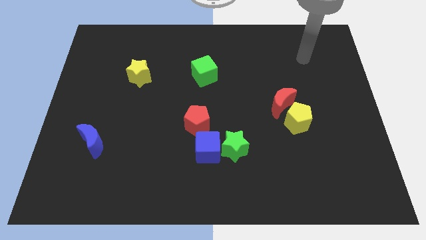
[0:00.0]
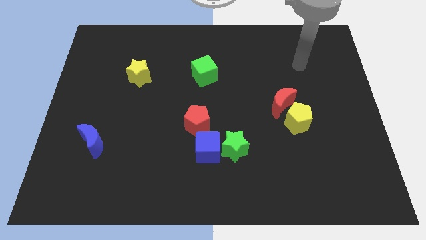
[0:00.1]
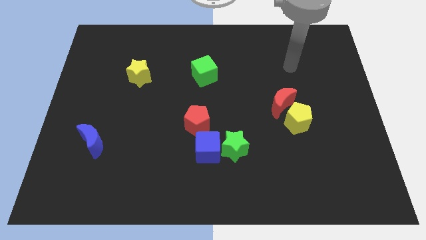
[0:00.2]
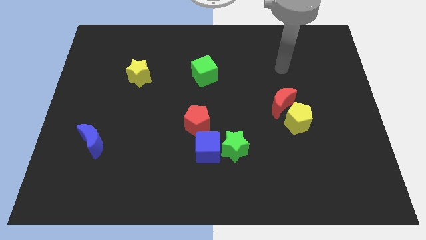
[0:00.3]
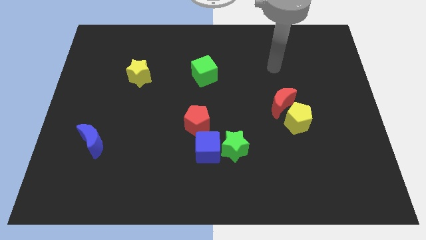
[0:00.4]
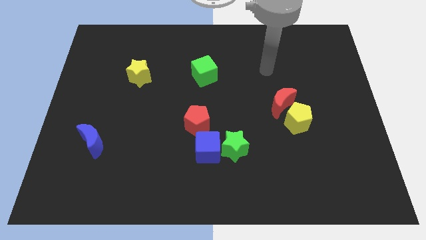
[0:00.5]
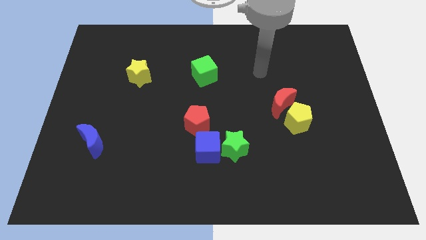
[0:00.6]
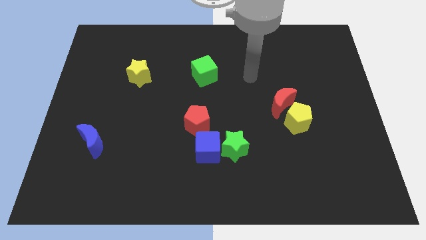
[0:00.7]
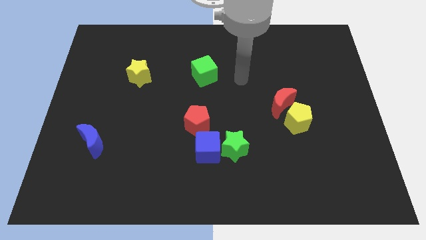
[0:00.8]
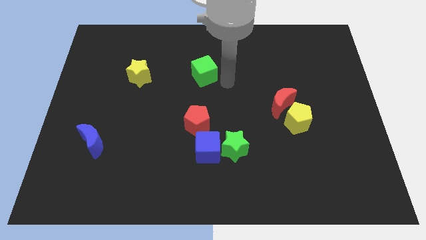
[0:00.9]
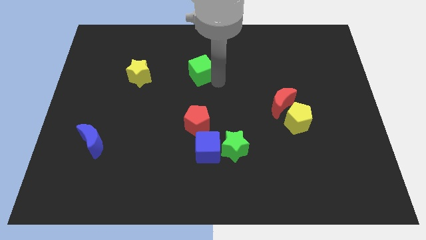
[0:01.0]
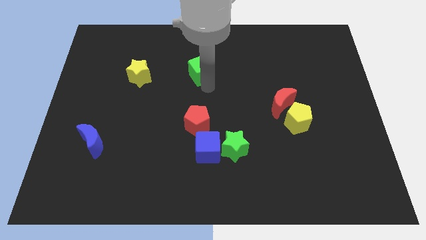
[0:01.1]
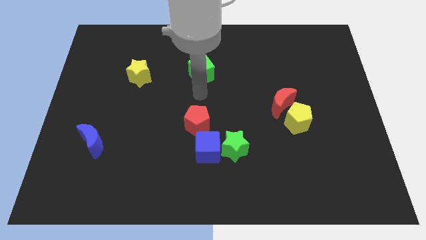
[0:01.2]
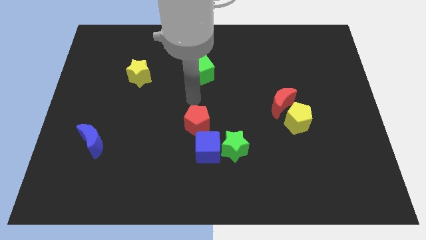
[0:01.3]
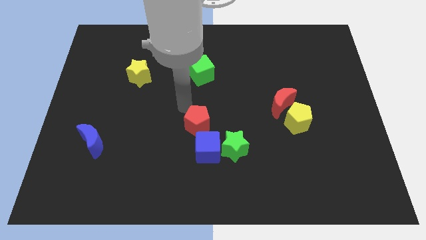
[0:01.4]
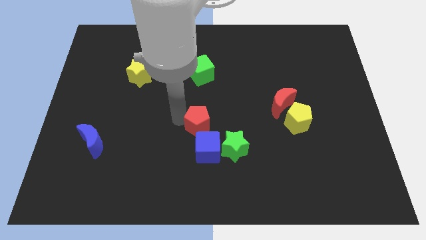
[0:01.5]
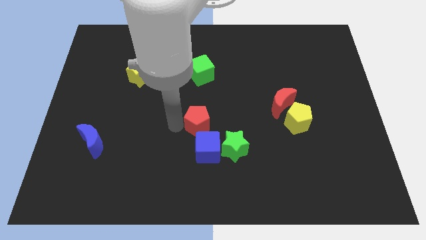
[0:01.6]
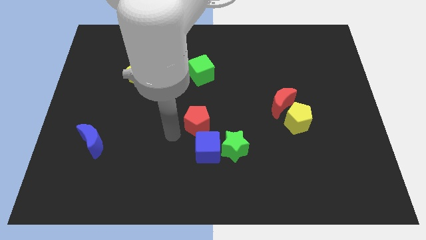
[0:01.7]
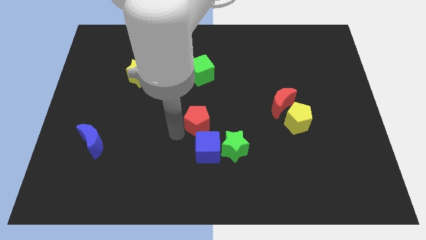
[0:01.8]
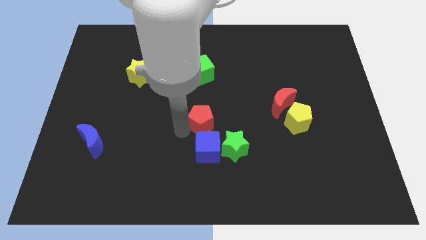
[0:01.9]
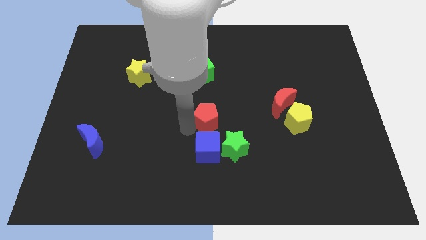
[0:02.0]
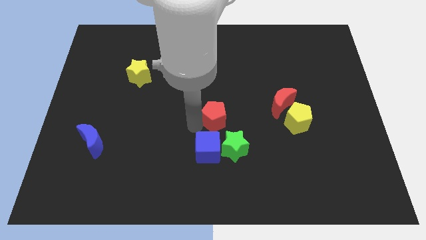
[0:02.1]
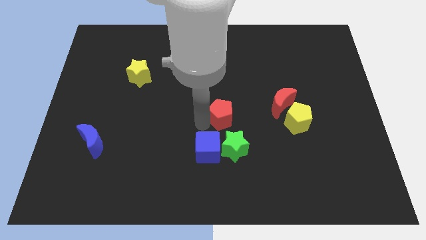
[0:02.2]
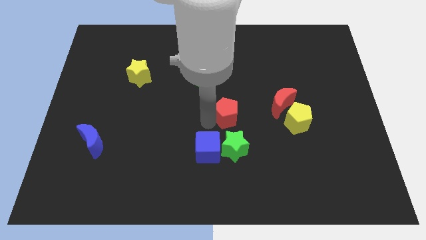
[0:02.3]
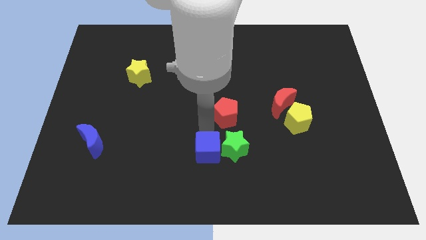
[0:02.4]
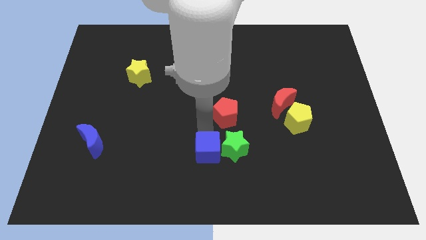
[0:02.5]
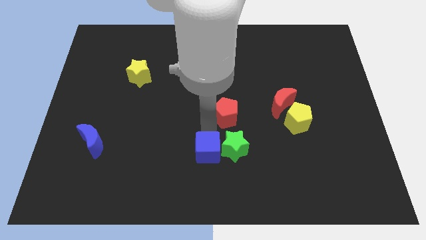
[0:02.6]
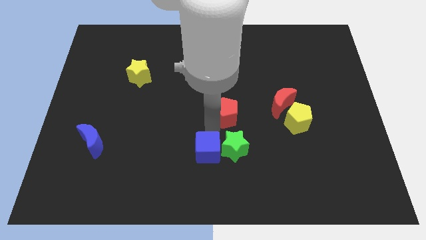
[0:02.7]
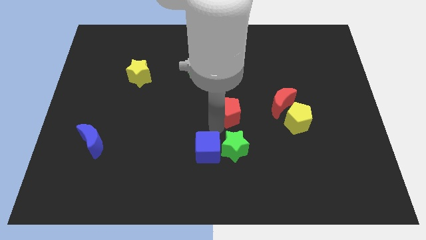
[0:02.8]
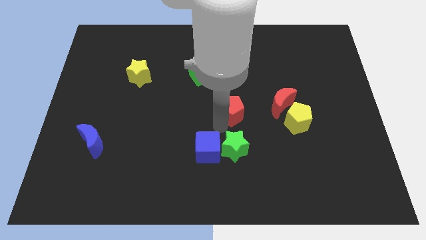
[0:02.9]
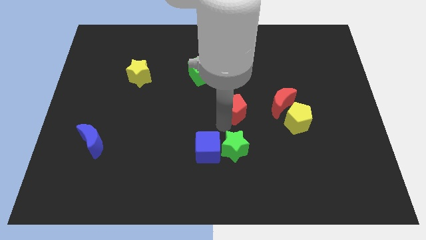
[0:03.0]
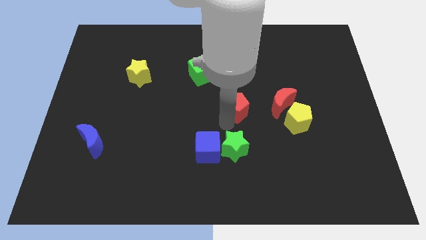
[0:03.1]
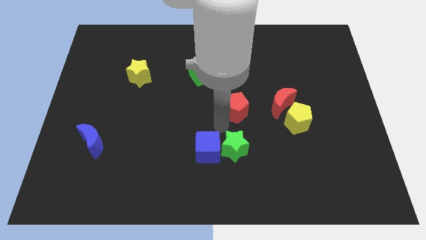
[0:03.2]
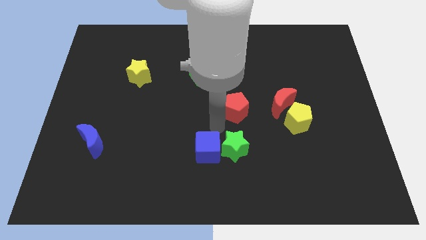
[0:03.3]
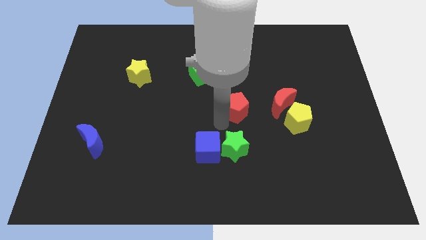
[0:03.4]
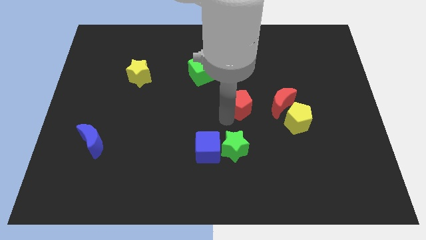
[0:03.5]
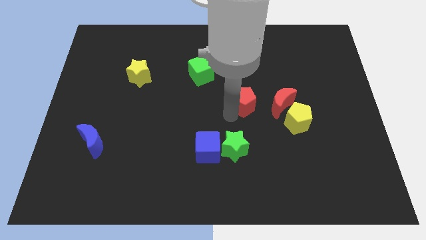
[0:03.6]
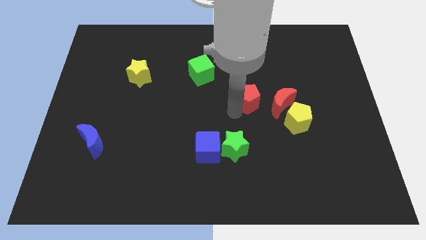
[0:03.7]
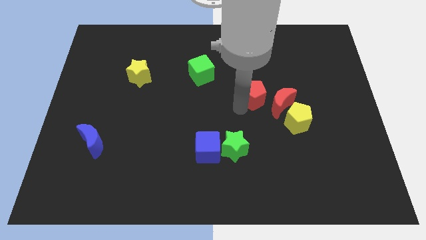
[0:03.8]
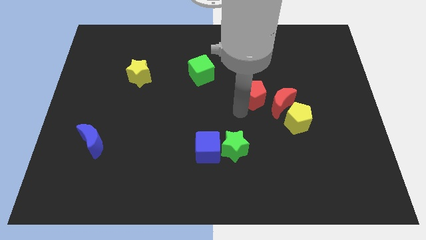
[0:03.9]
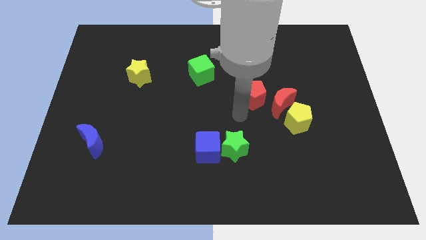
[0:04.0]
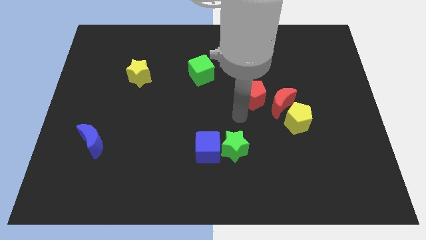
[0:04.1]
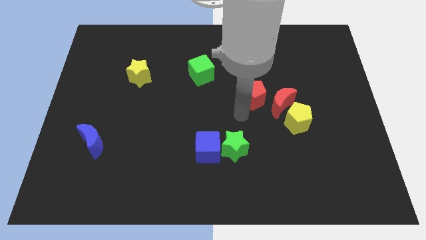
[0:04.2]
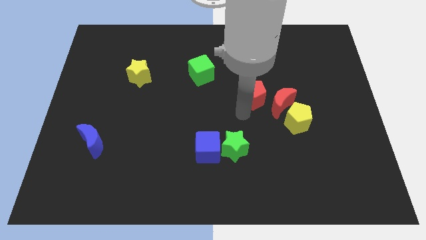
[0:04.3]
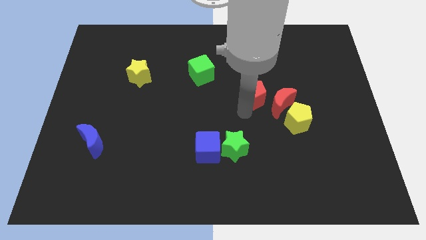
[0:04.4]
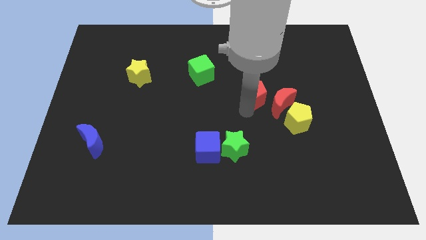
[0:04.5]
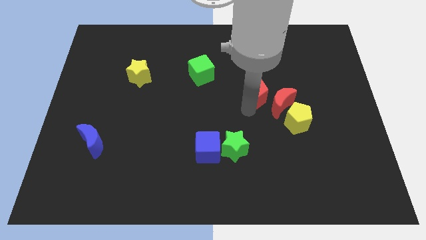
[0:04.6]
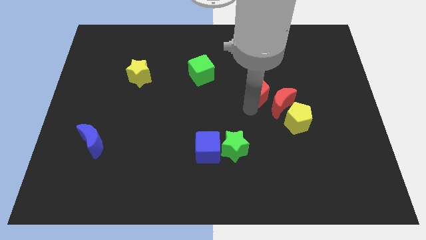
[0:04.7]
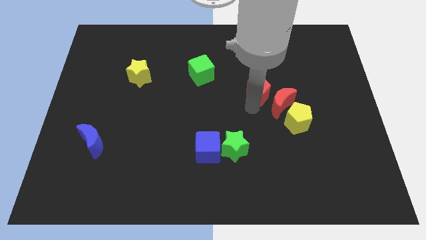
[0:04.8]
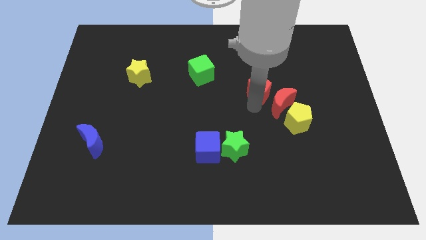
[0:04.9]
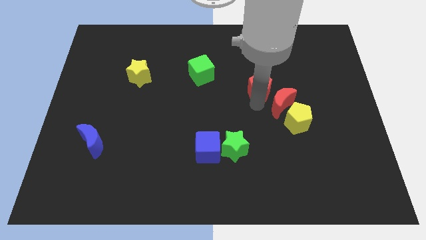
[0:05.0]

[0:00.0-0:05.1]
push the red pentagon to the top of the red moon

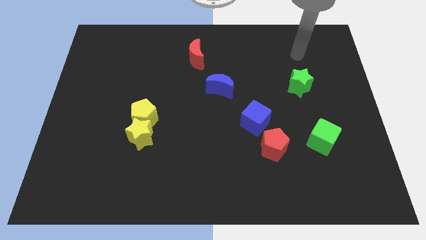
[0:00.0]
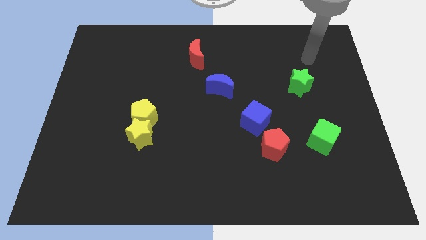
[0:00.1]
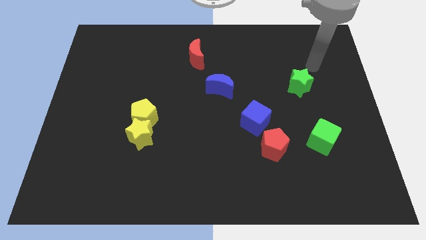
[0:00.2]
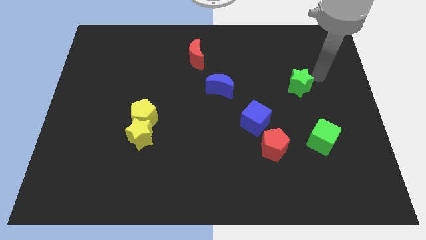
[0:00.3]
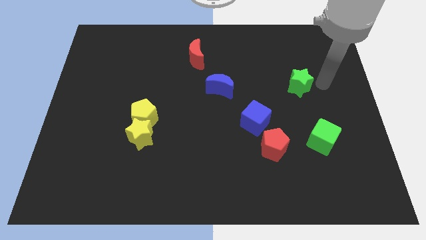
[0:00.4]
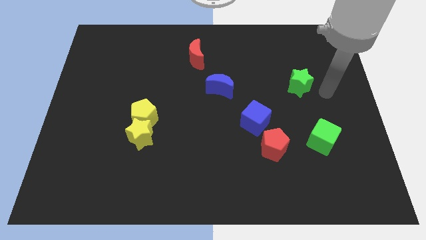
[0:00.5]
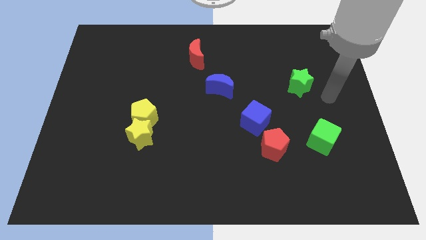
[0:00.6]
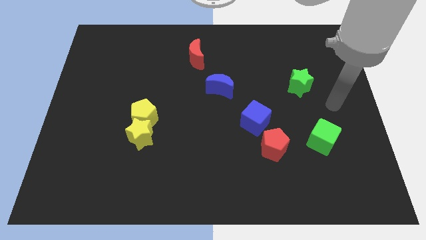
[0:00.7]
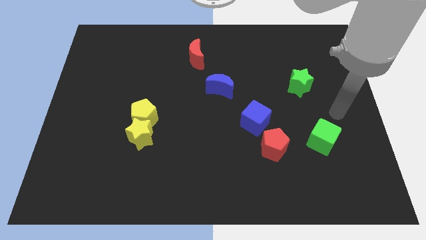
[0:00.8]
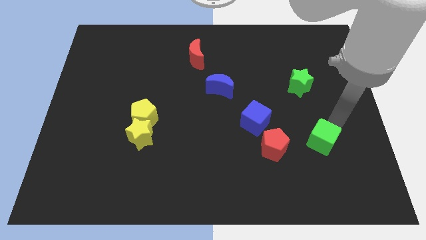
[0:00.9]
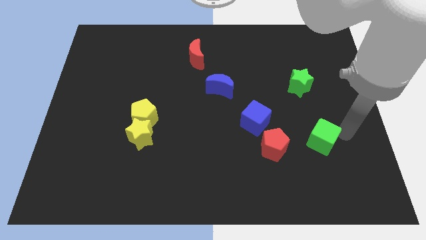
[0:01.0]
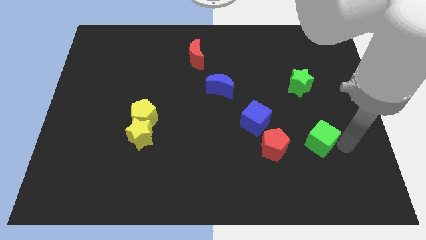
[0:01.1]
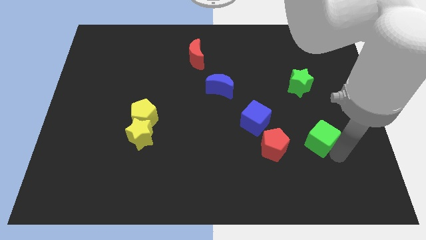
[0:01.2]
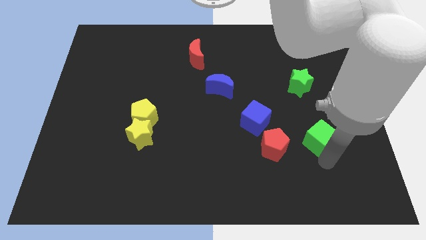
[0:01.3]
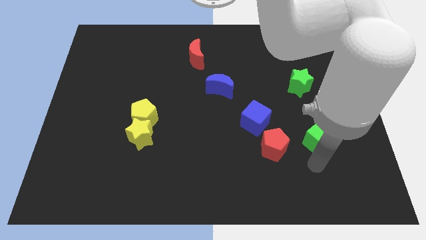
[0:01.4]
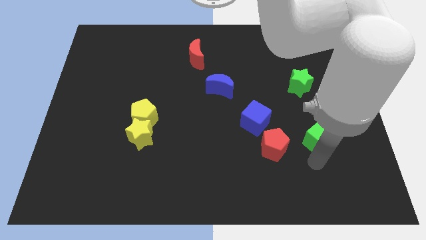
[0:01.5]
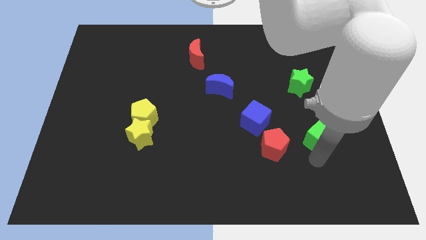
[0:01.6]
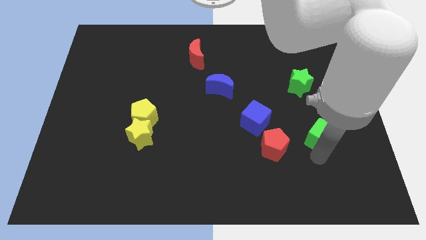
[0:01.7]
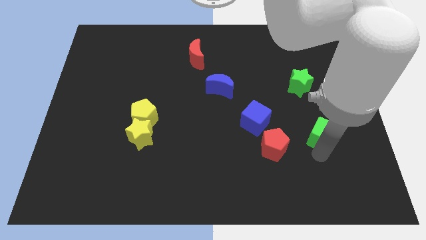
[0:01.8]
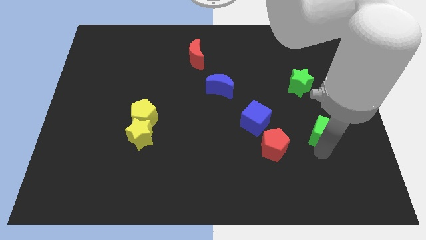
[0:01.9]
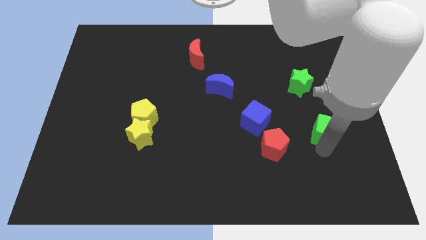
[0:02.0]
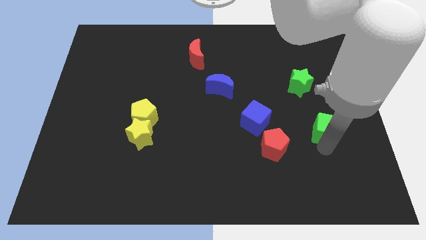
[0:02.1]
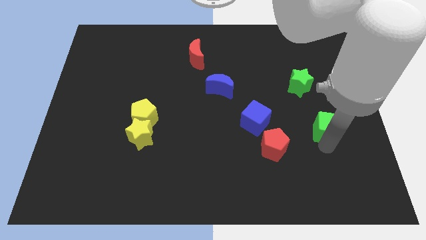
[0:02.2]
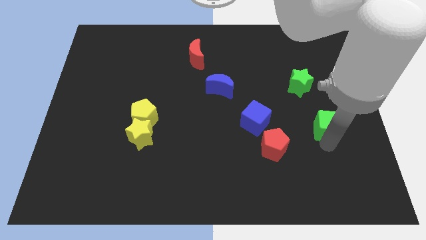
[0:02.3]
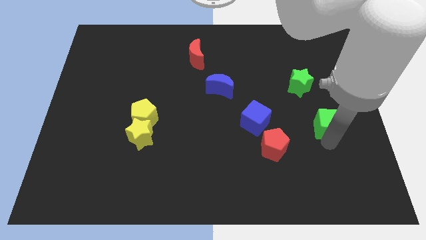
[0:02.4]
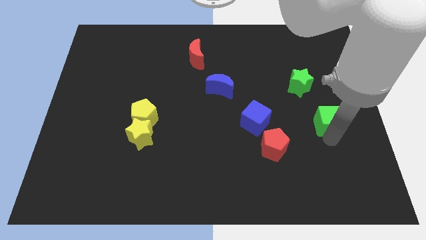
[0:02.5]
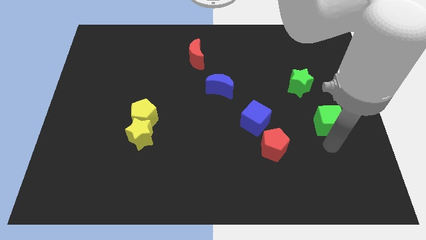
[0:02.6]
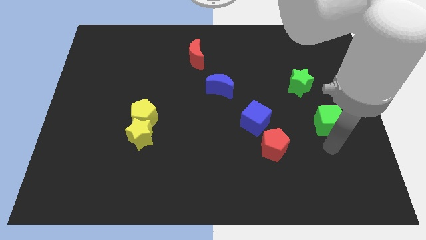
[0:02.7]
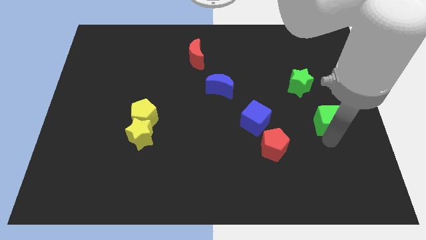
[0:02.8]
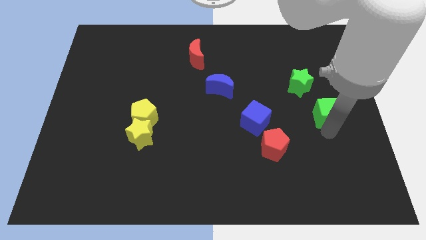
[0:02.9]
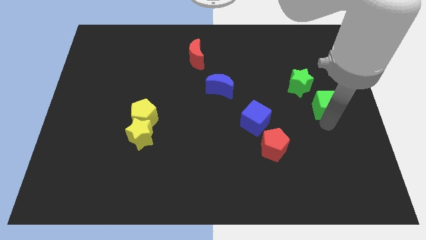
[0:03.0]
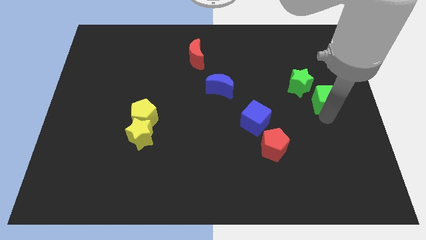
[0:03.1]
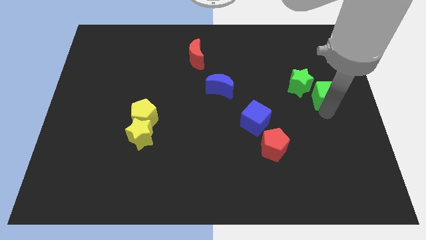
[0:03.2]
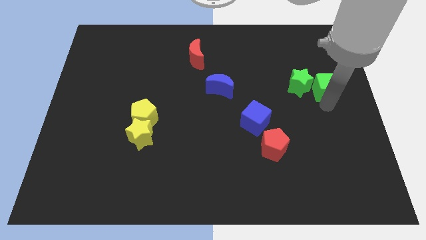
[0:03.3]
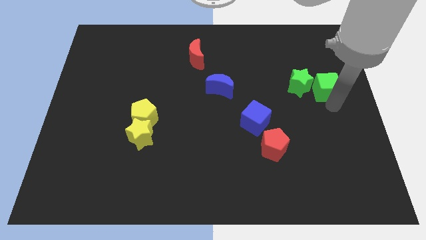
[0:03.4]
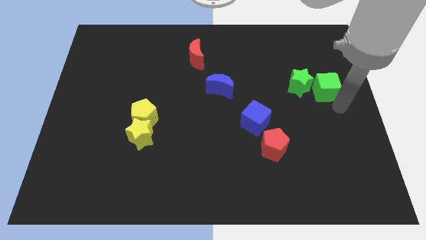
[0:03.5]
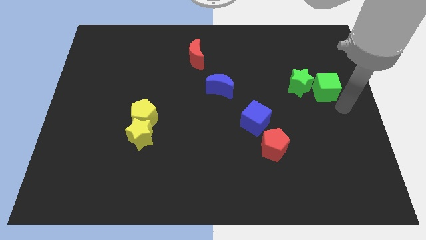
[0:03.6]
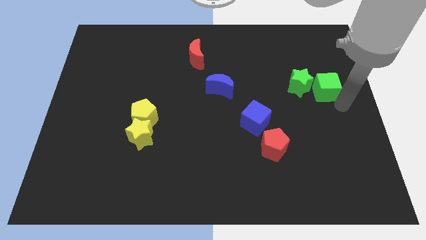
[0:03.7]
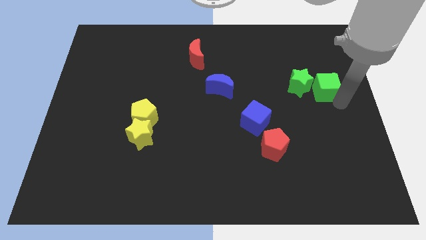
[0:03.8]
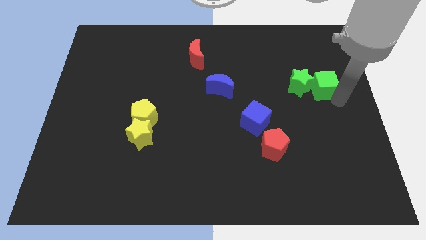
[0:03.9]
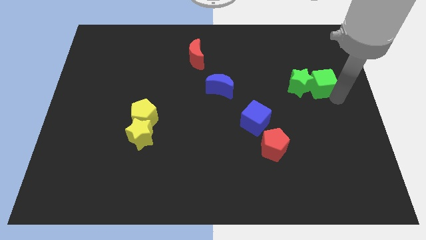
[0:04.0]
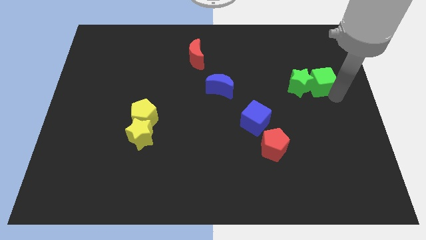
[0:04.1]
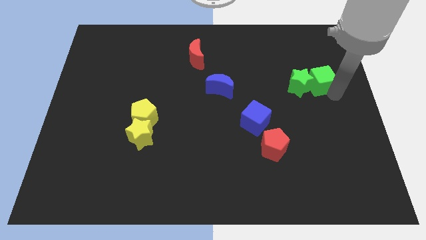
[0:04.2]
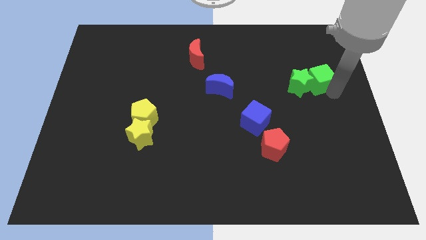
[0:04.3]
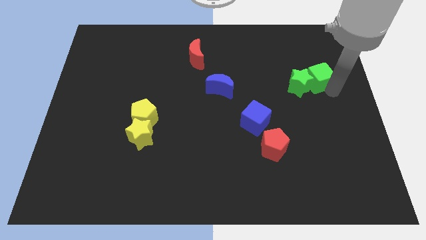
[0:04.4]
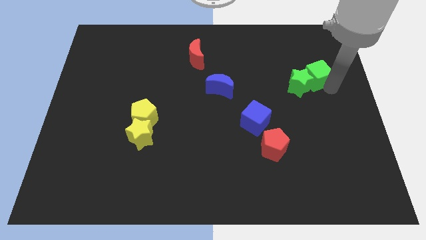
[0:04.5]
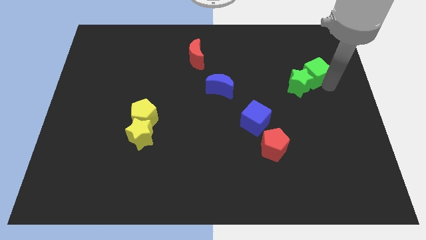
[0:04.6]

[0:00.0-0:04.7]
slide the green cube to the top of the green star
